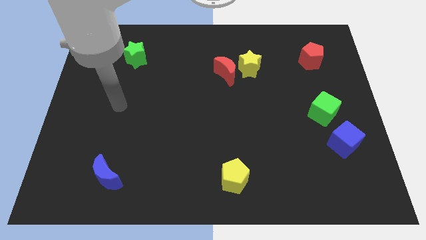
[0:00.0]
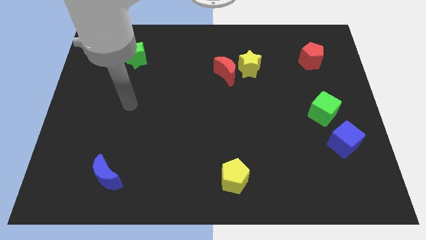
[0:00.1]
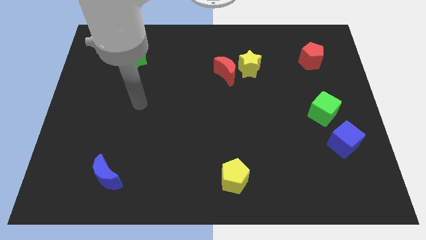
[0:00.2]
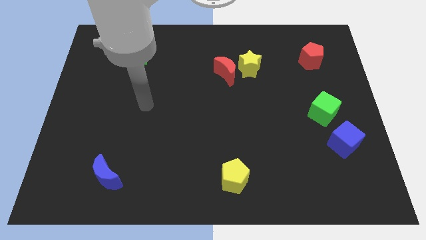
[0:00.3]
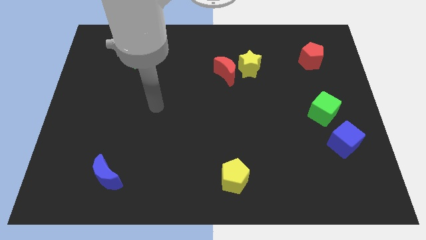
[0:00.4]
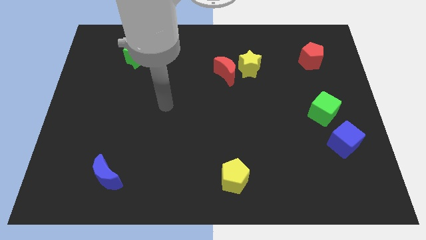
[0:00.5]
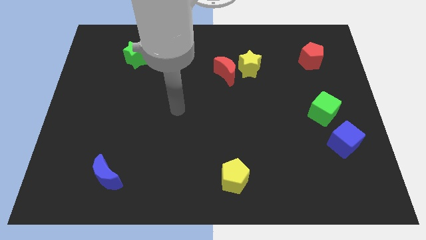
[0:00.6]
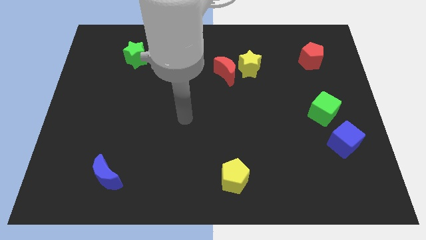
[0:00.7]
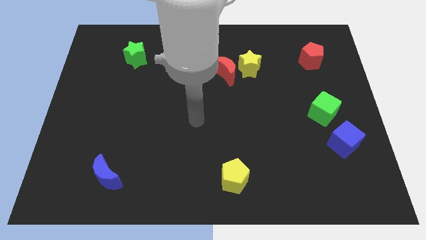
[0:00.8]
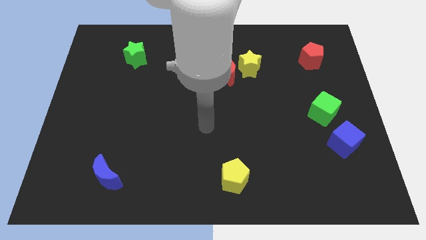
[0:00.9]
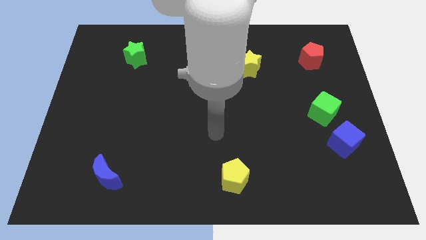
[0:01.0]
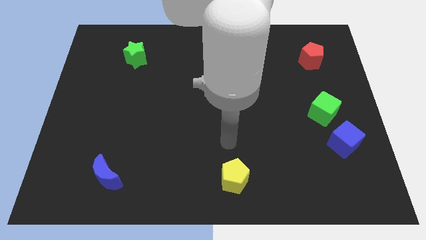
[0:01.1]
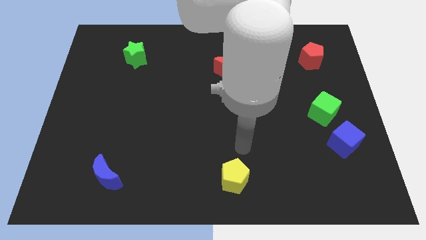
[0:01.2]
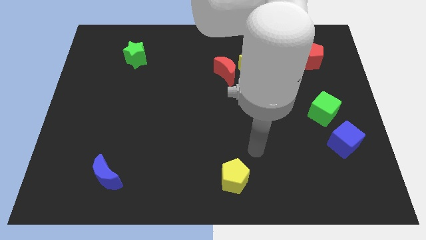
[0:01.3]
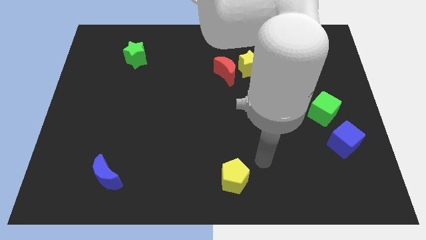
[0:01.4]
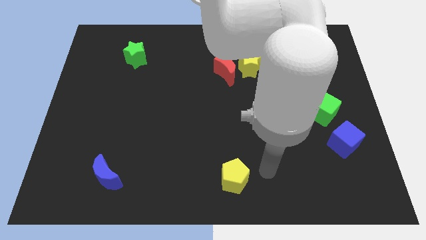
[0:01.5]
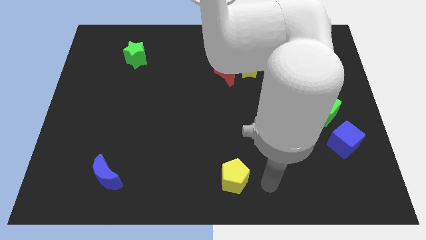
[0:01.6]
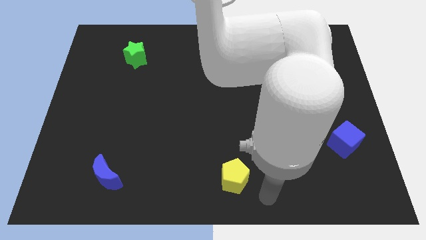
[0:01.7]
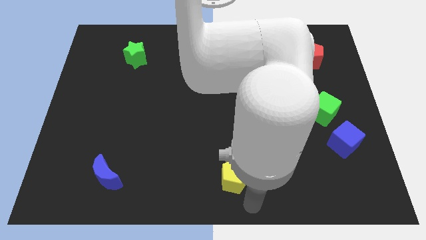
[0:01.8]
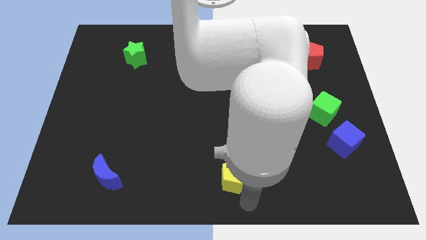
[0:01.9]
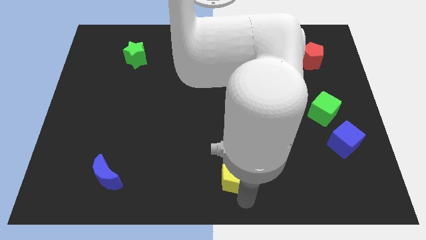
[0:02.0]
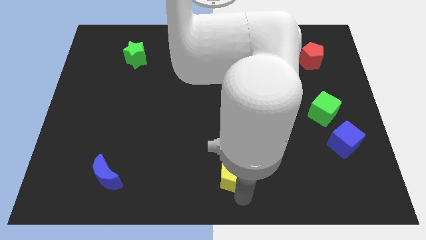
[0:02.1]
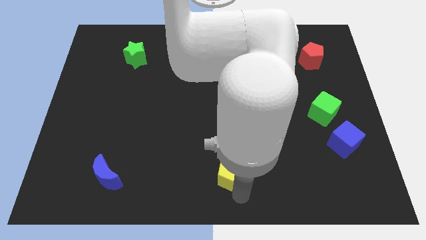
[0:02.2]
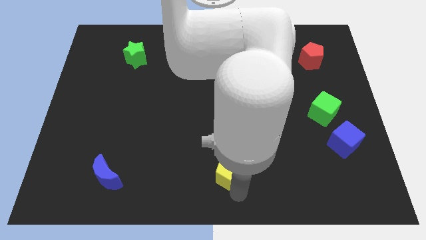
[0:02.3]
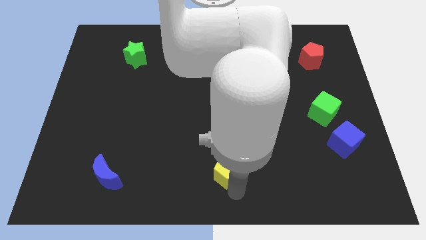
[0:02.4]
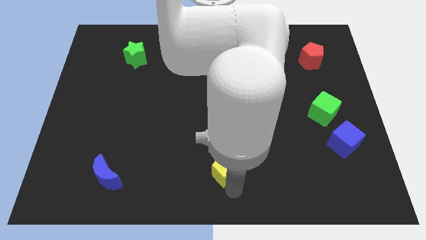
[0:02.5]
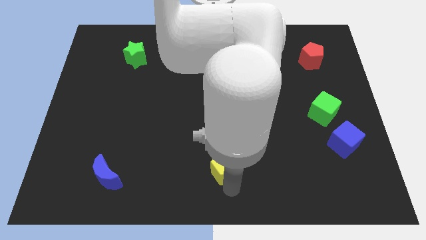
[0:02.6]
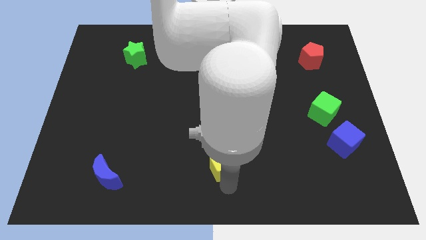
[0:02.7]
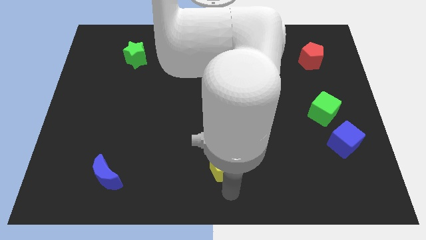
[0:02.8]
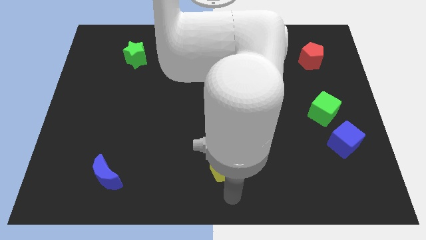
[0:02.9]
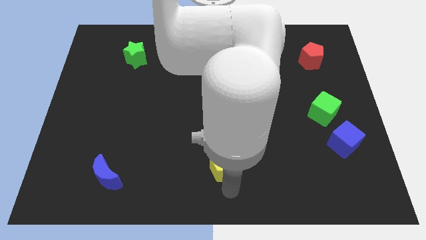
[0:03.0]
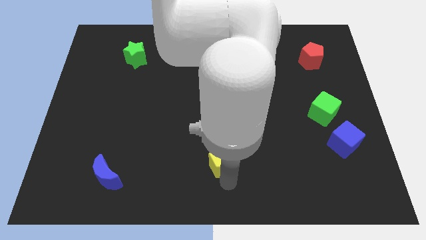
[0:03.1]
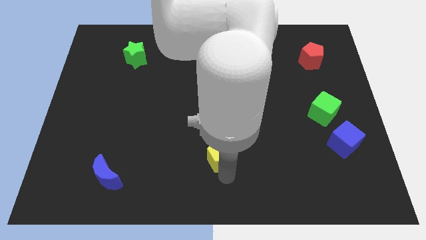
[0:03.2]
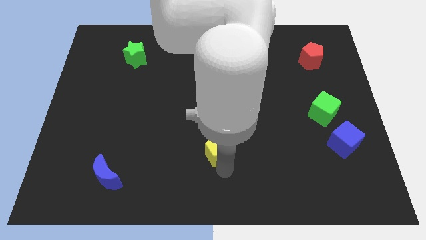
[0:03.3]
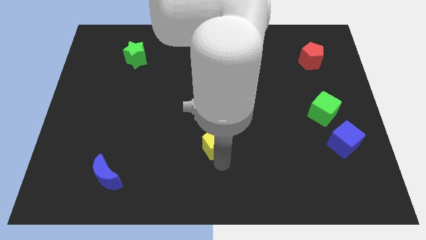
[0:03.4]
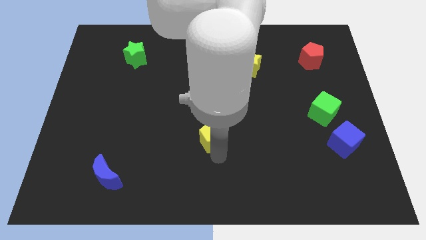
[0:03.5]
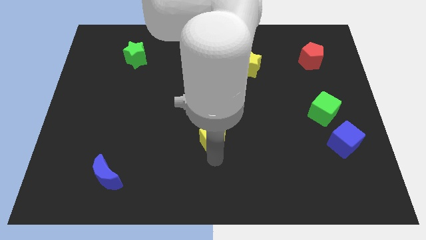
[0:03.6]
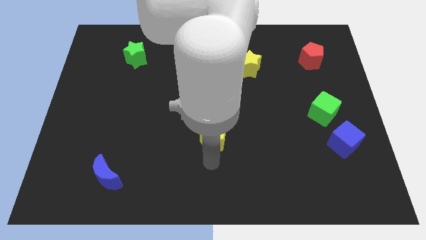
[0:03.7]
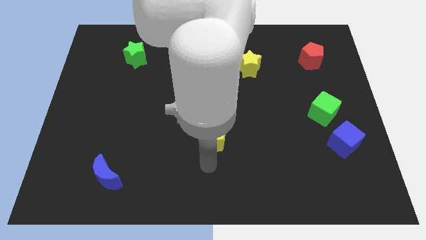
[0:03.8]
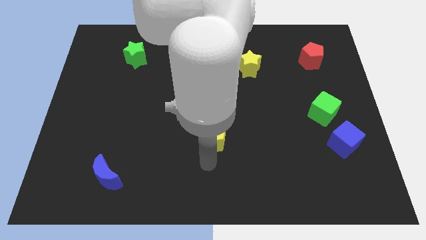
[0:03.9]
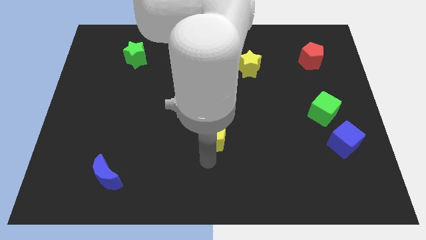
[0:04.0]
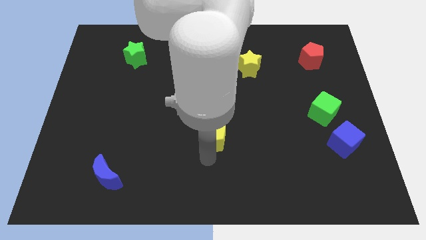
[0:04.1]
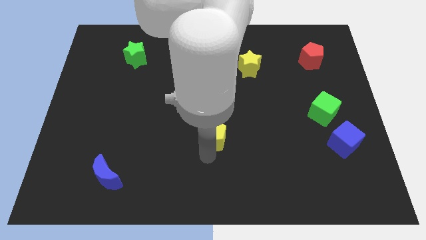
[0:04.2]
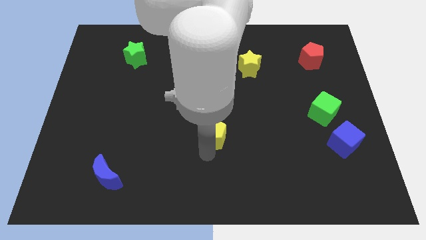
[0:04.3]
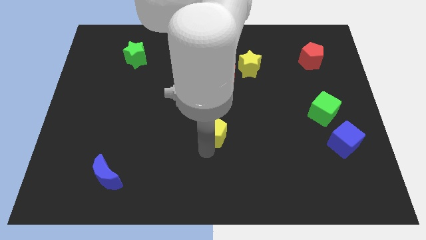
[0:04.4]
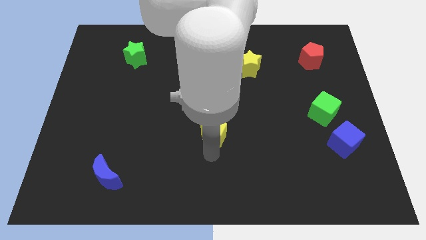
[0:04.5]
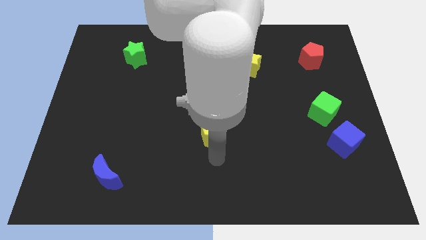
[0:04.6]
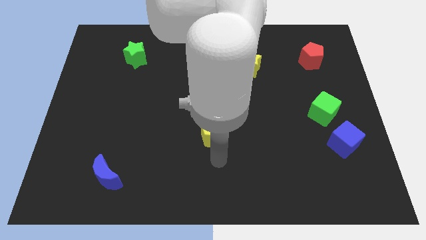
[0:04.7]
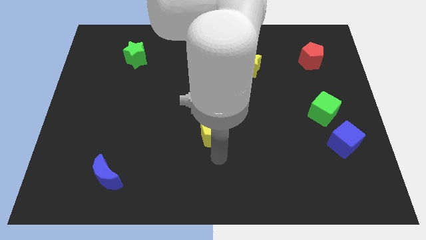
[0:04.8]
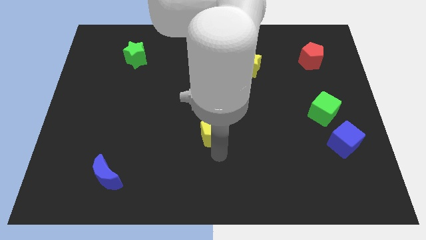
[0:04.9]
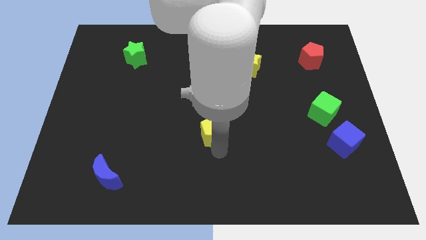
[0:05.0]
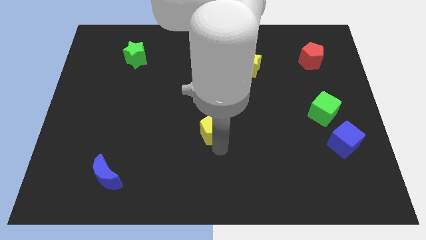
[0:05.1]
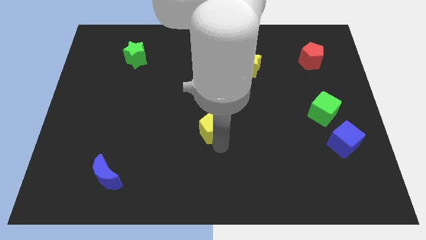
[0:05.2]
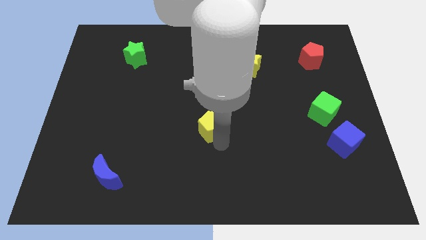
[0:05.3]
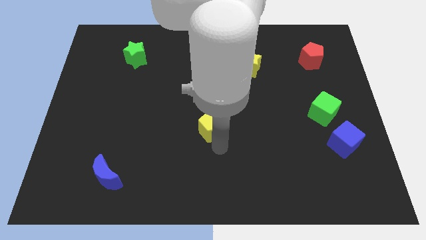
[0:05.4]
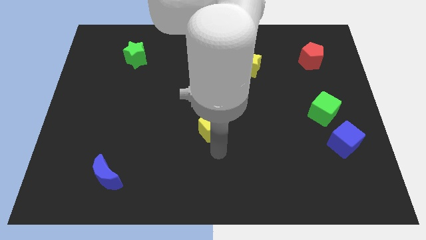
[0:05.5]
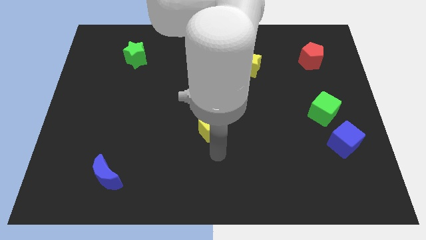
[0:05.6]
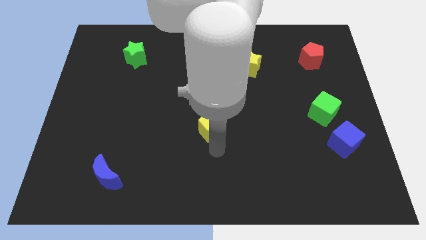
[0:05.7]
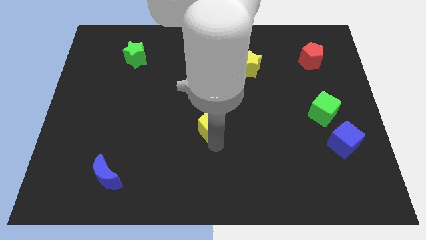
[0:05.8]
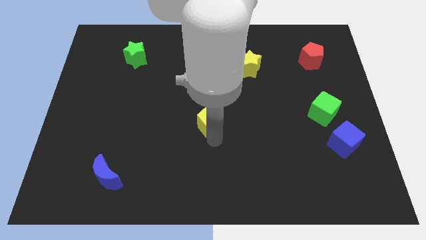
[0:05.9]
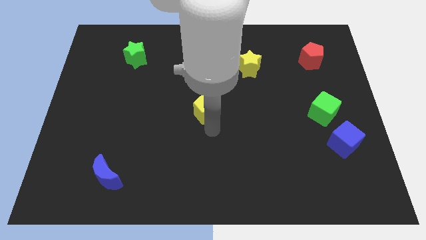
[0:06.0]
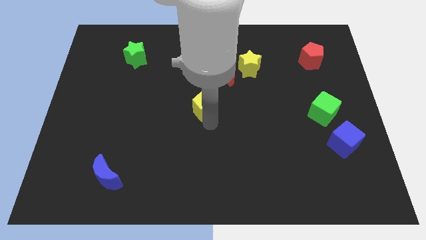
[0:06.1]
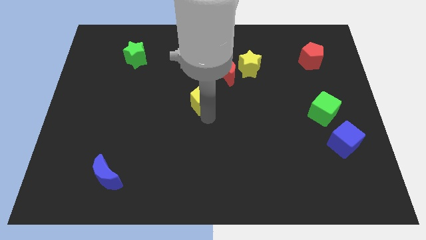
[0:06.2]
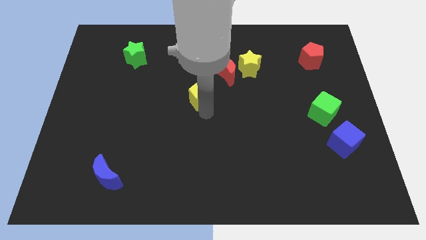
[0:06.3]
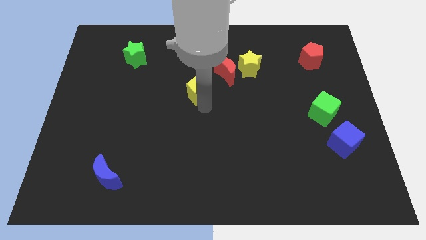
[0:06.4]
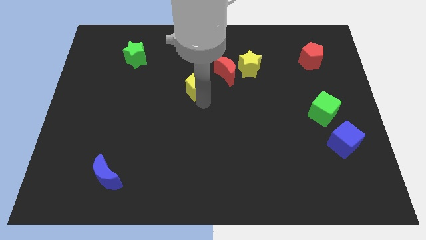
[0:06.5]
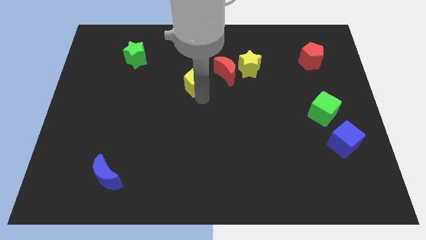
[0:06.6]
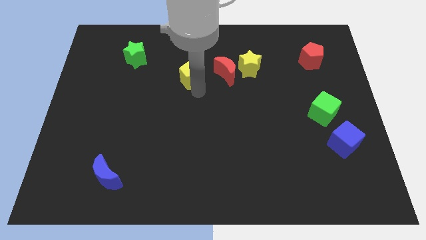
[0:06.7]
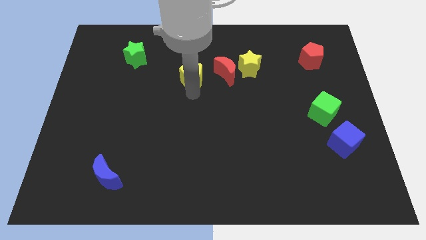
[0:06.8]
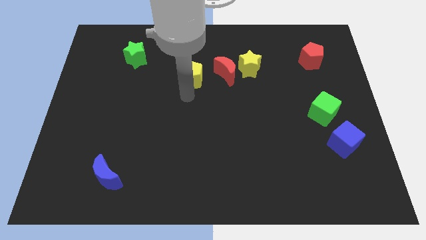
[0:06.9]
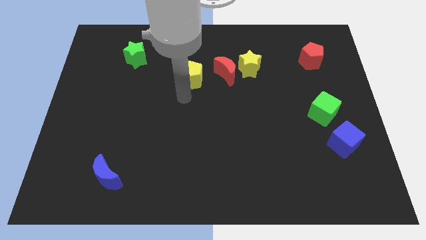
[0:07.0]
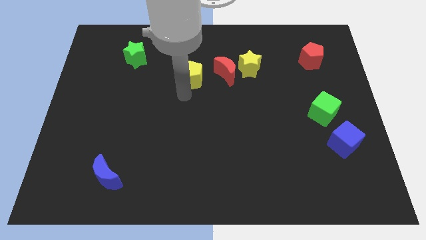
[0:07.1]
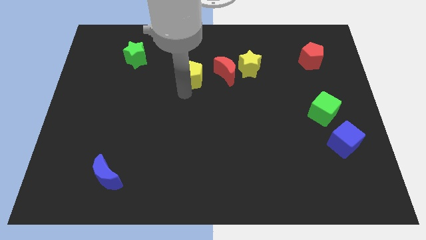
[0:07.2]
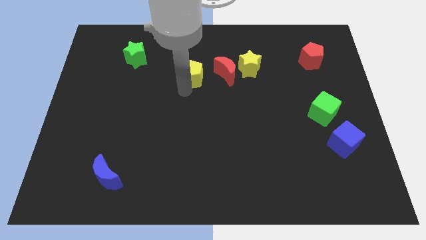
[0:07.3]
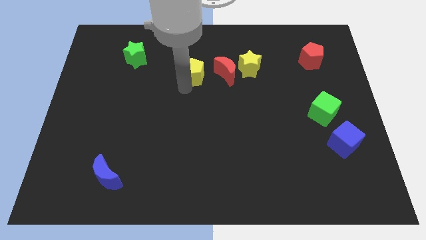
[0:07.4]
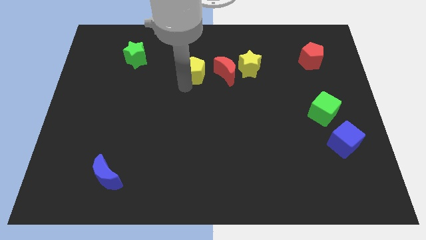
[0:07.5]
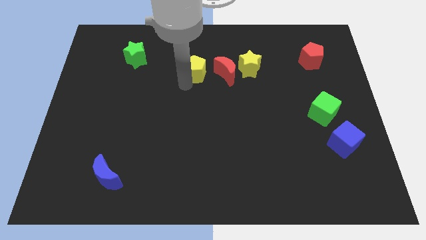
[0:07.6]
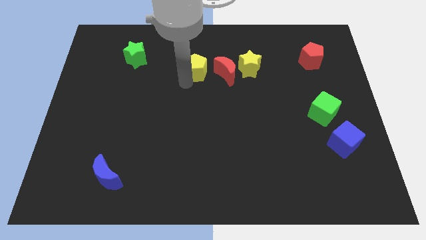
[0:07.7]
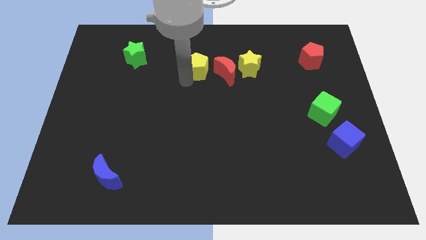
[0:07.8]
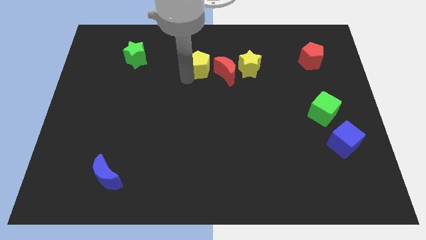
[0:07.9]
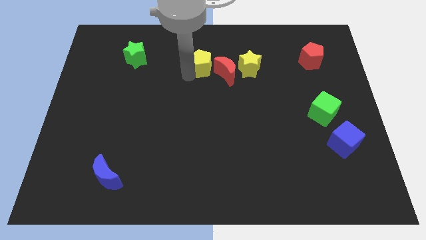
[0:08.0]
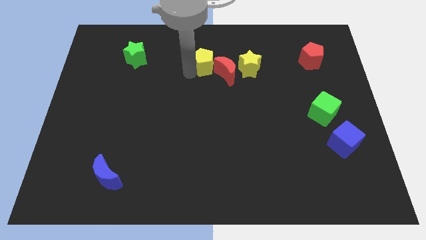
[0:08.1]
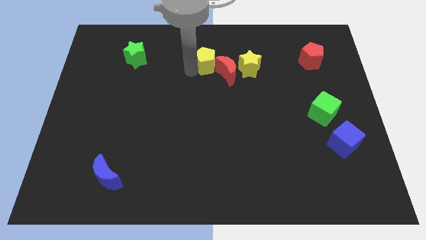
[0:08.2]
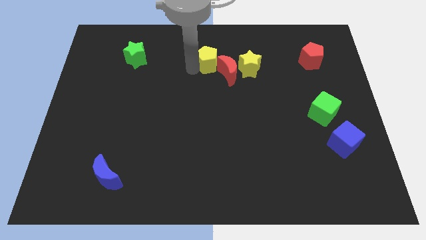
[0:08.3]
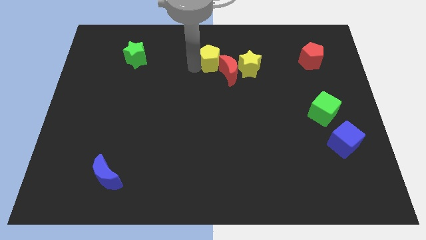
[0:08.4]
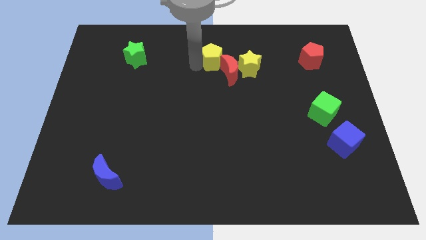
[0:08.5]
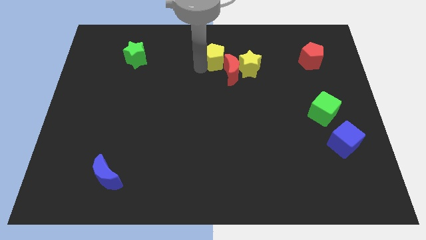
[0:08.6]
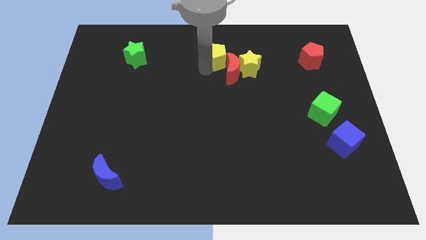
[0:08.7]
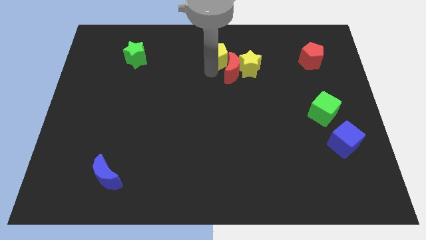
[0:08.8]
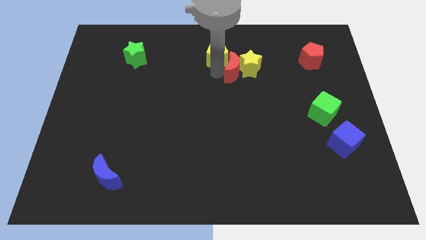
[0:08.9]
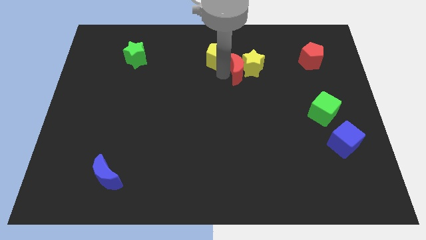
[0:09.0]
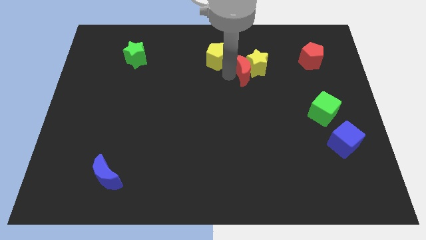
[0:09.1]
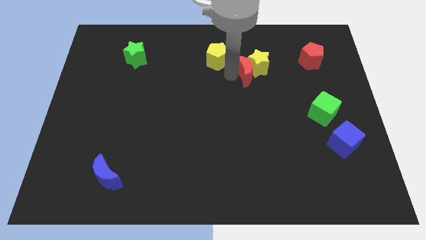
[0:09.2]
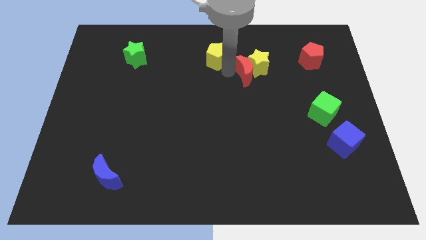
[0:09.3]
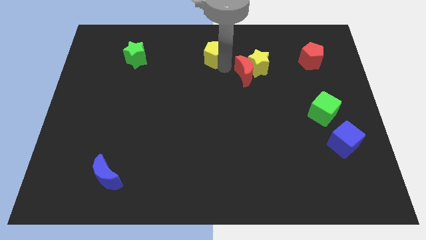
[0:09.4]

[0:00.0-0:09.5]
move the yellow pentagon to the towards your base
